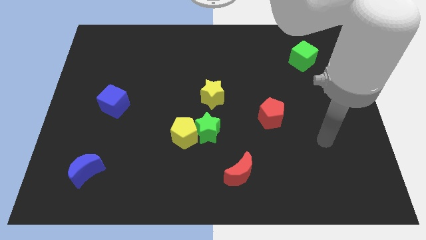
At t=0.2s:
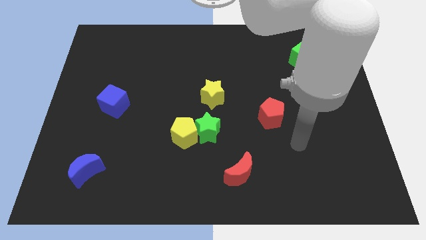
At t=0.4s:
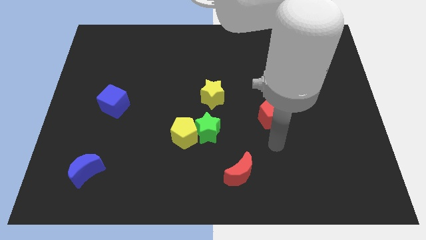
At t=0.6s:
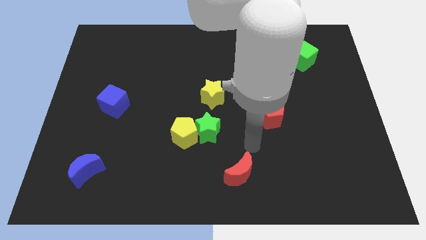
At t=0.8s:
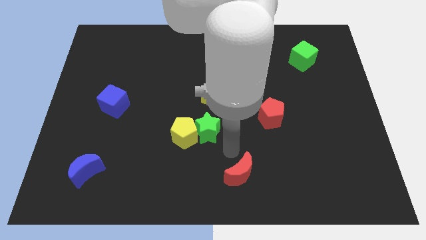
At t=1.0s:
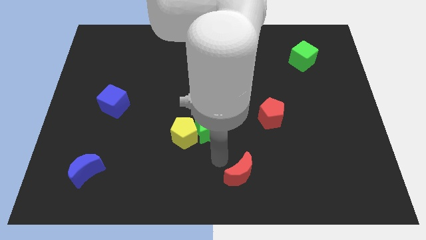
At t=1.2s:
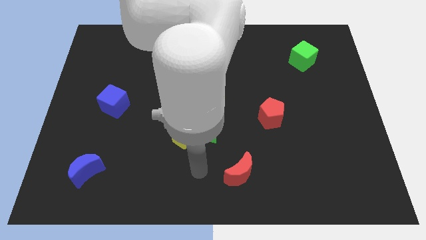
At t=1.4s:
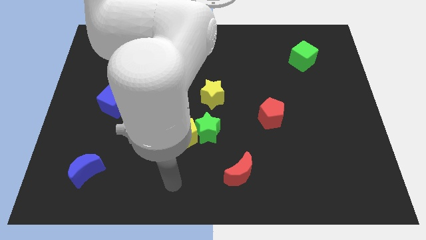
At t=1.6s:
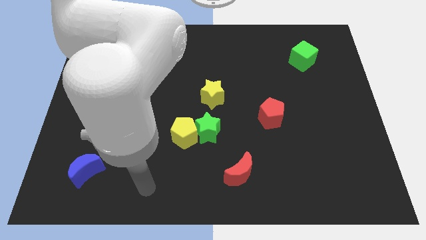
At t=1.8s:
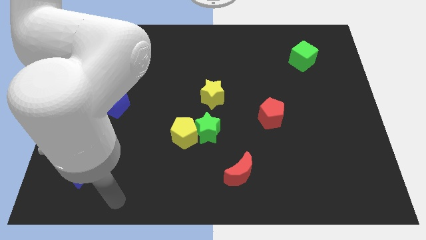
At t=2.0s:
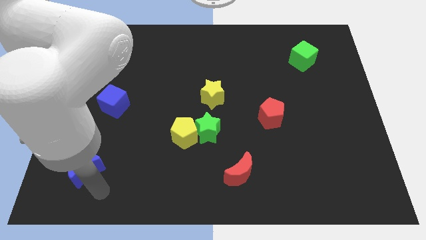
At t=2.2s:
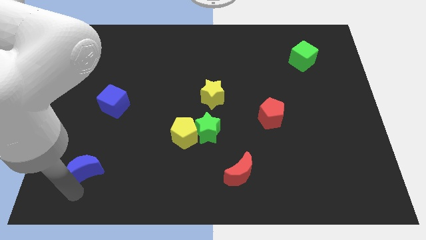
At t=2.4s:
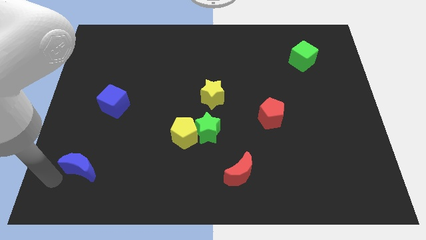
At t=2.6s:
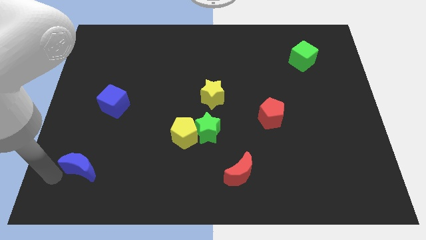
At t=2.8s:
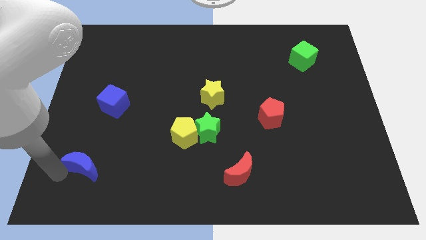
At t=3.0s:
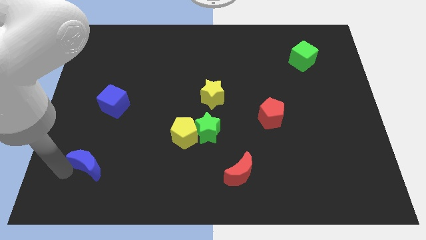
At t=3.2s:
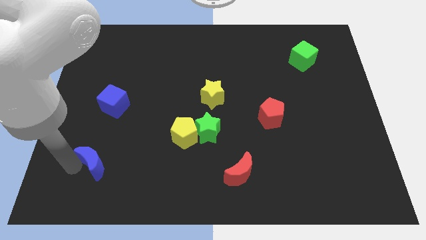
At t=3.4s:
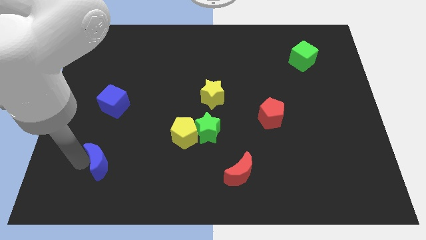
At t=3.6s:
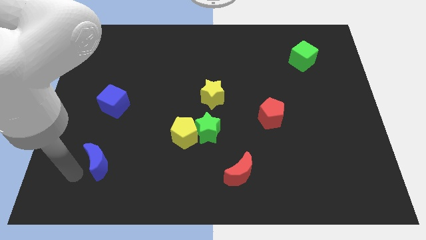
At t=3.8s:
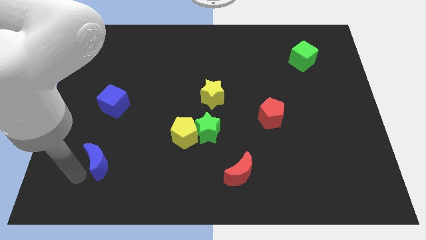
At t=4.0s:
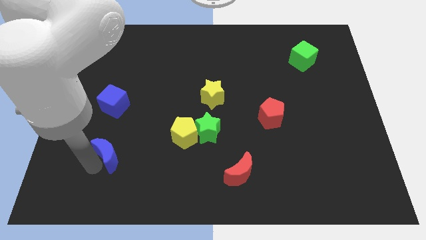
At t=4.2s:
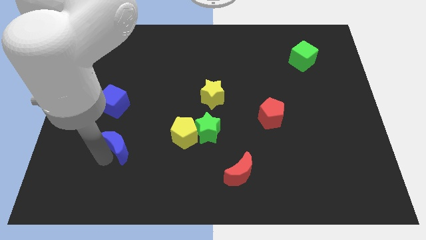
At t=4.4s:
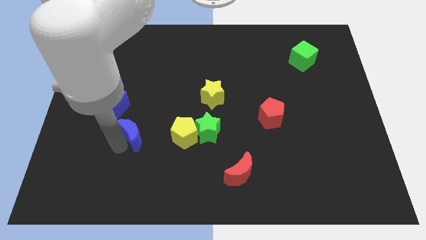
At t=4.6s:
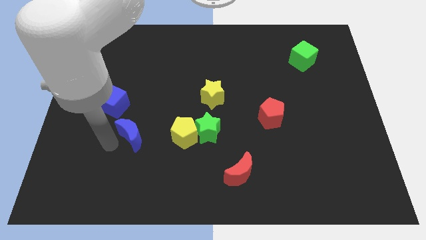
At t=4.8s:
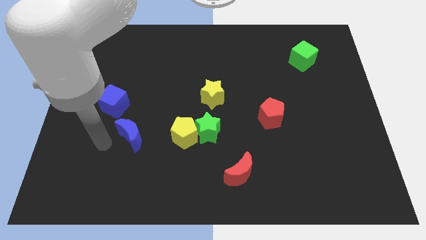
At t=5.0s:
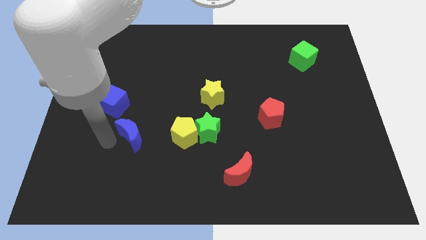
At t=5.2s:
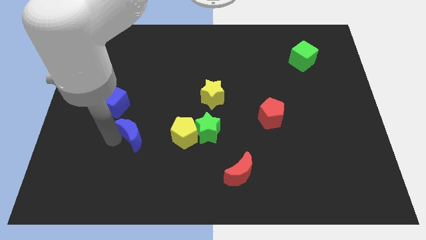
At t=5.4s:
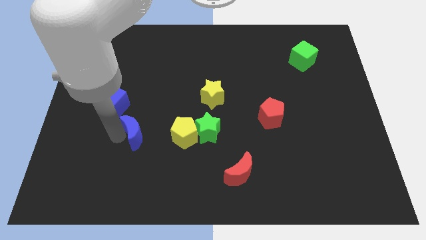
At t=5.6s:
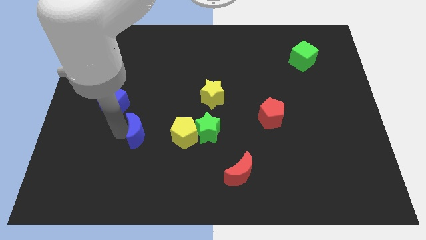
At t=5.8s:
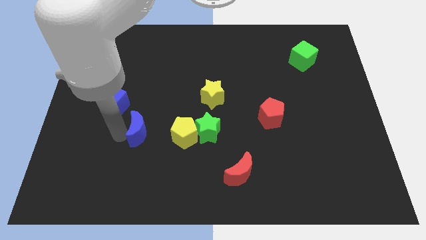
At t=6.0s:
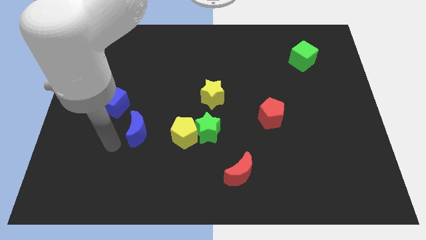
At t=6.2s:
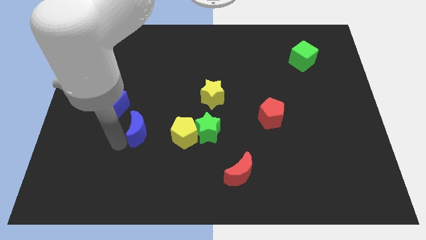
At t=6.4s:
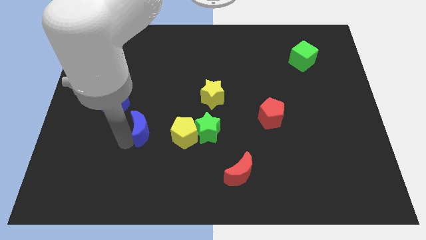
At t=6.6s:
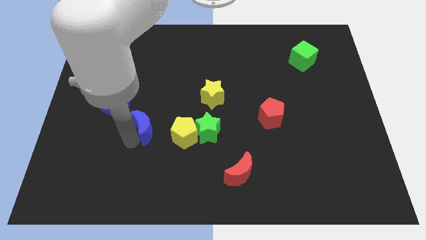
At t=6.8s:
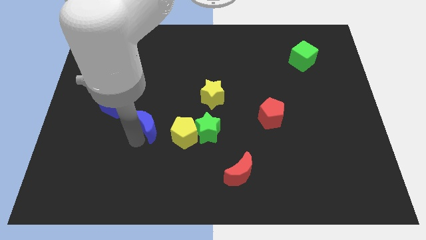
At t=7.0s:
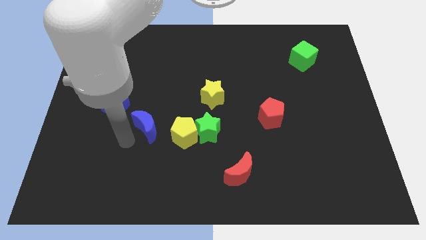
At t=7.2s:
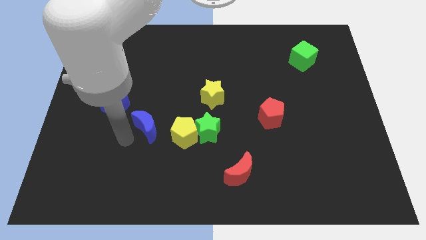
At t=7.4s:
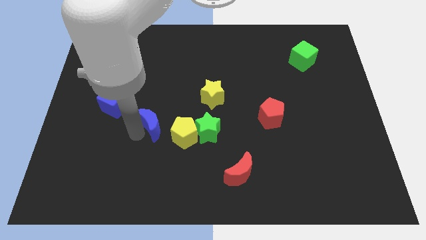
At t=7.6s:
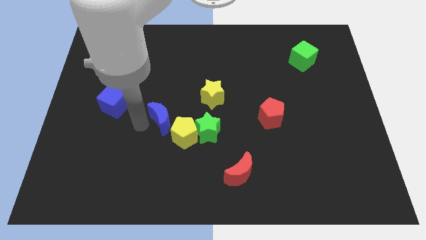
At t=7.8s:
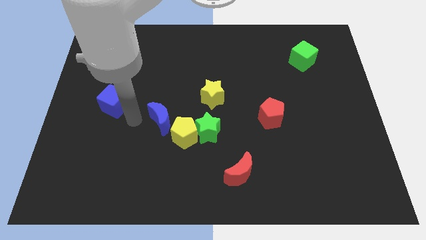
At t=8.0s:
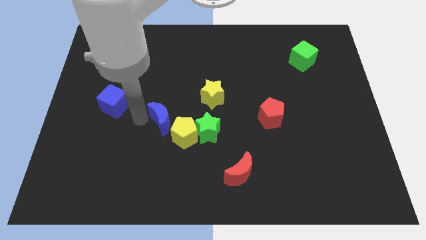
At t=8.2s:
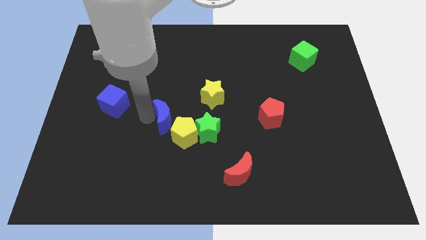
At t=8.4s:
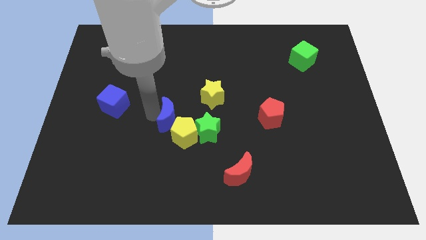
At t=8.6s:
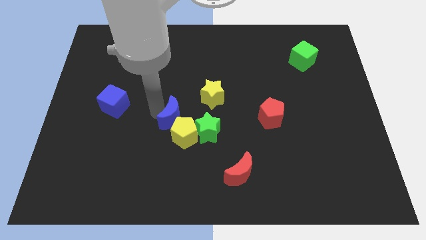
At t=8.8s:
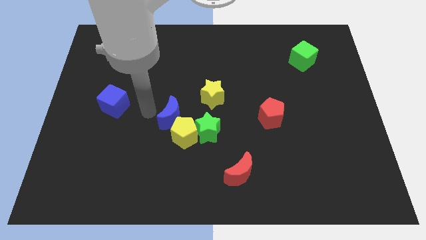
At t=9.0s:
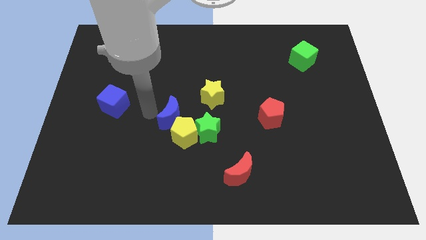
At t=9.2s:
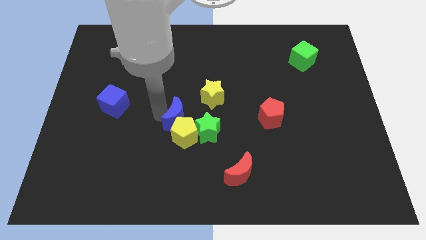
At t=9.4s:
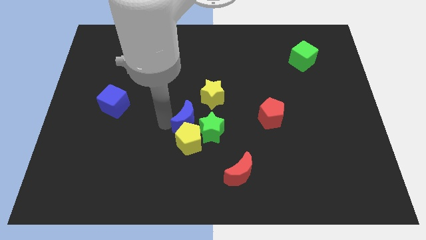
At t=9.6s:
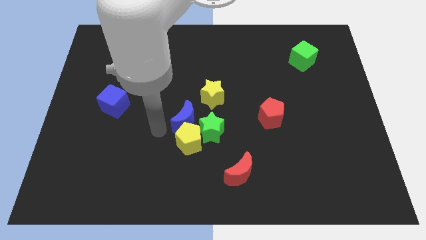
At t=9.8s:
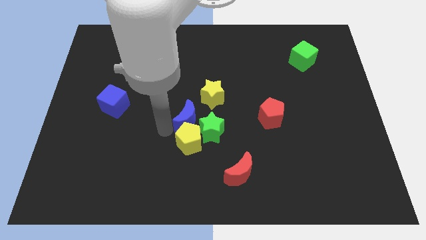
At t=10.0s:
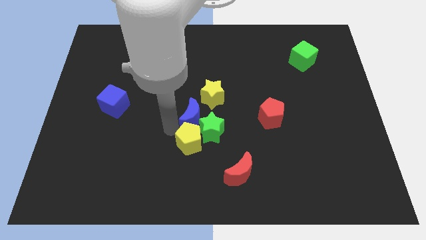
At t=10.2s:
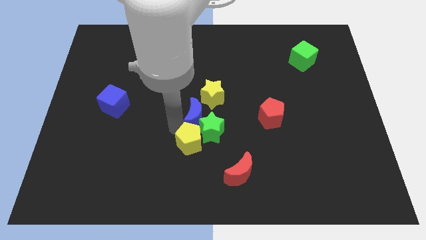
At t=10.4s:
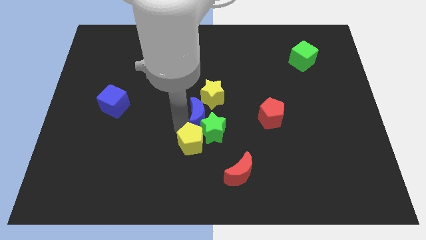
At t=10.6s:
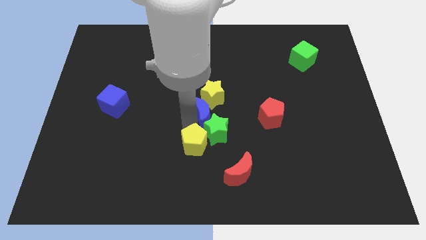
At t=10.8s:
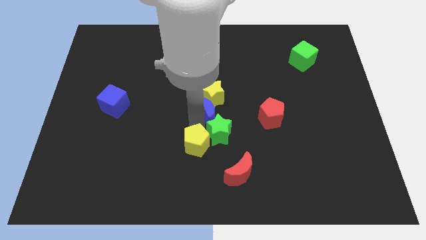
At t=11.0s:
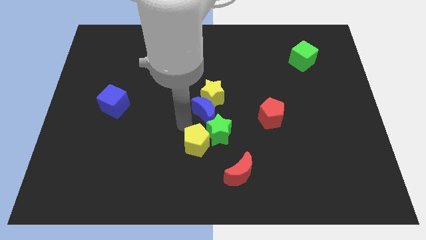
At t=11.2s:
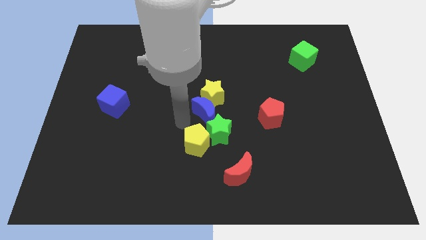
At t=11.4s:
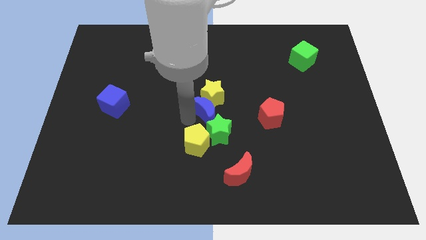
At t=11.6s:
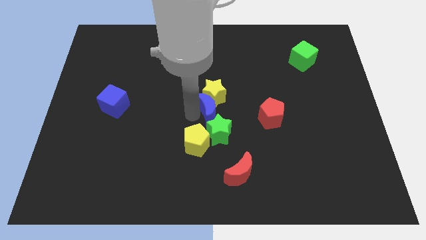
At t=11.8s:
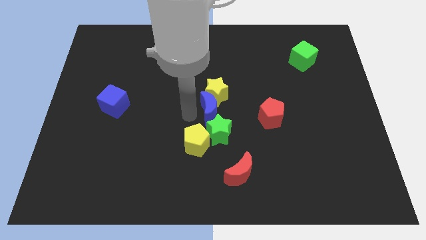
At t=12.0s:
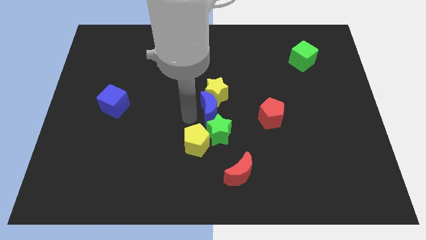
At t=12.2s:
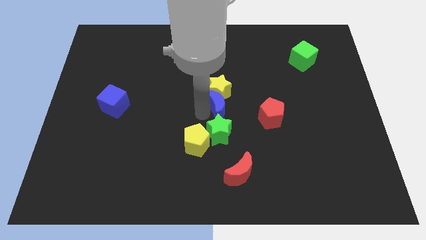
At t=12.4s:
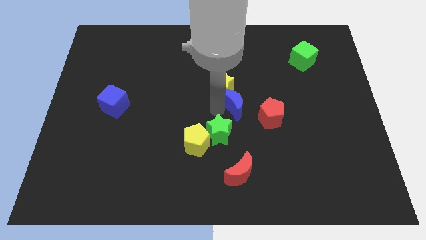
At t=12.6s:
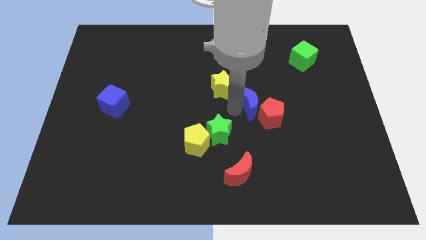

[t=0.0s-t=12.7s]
put the blue moon to the right of the yellow star

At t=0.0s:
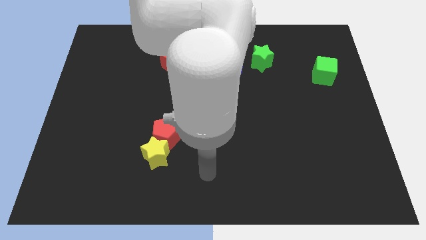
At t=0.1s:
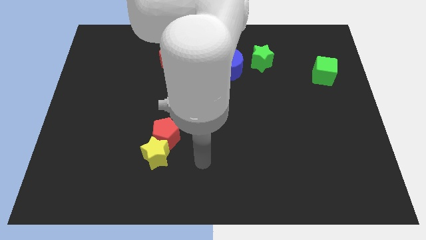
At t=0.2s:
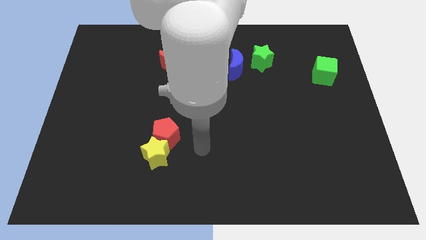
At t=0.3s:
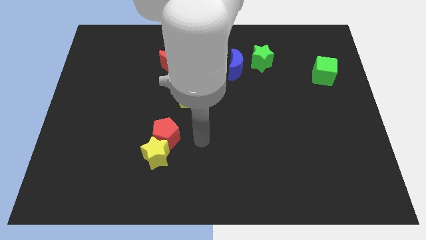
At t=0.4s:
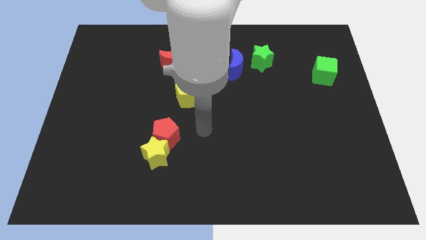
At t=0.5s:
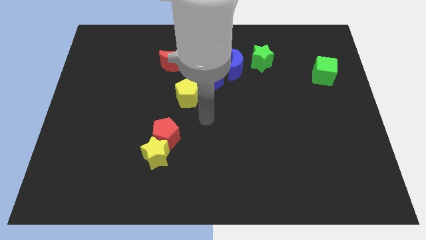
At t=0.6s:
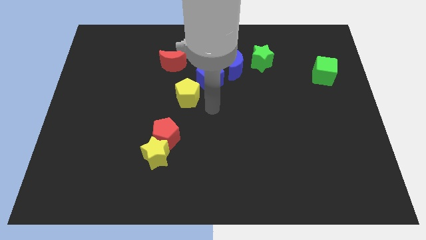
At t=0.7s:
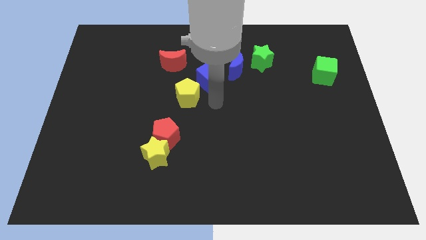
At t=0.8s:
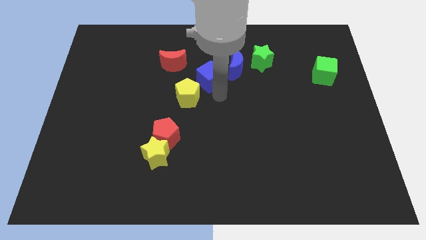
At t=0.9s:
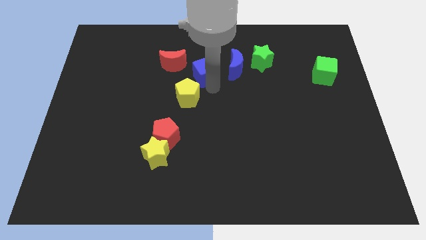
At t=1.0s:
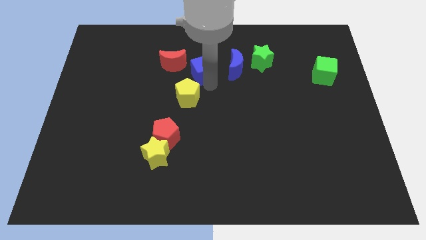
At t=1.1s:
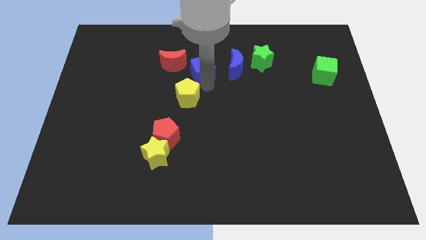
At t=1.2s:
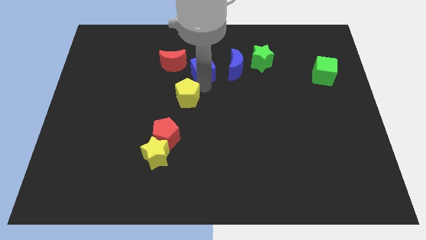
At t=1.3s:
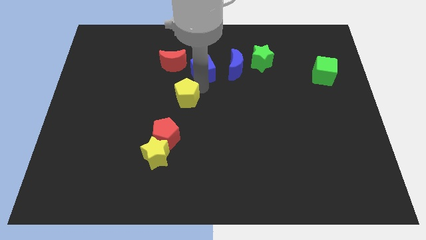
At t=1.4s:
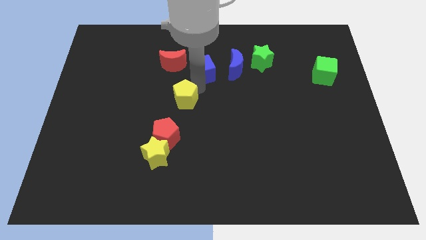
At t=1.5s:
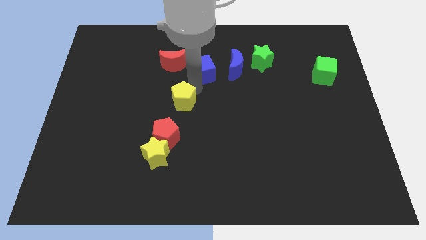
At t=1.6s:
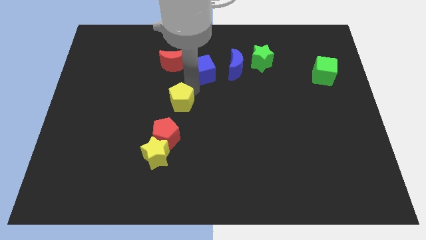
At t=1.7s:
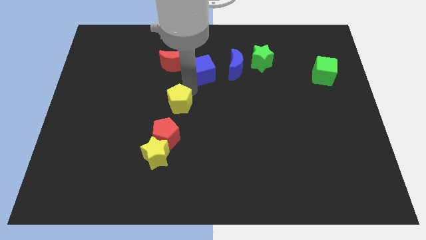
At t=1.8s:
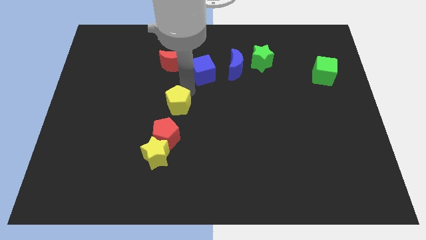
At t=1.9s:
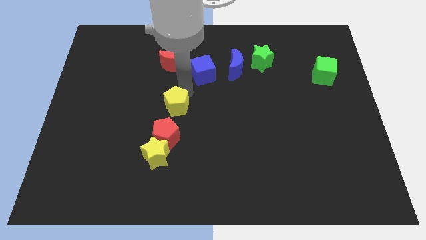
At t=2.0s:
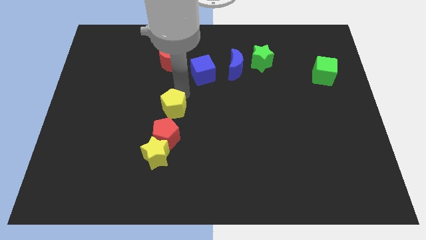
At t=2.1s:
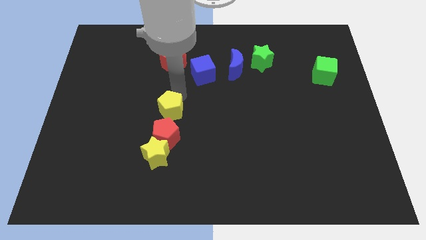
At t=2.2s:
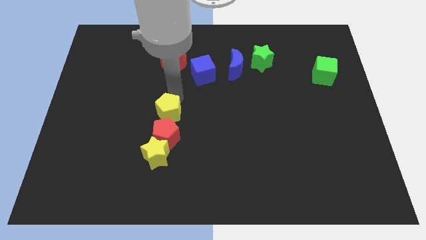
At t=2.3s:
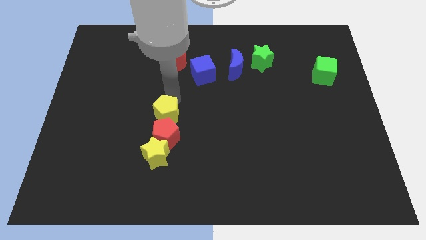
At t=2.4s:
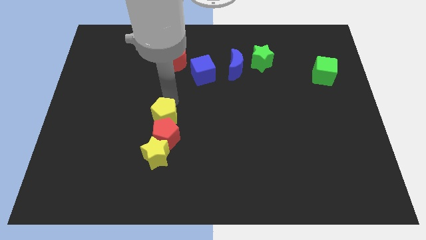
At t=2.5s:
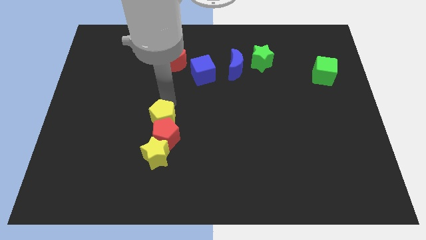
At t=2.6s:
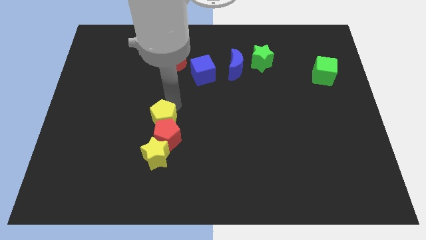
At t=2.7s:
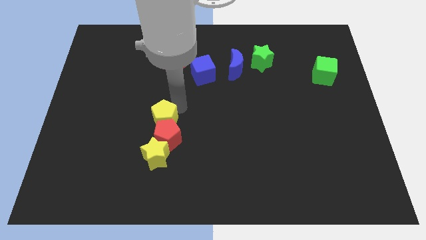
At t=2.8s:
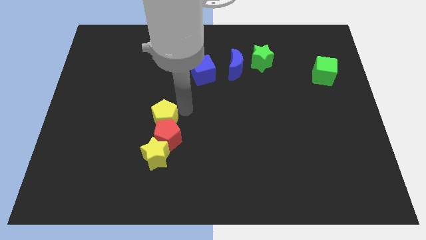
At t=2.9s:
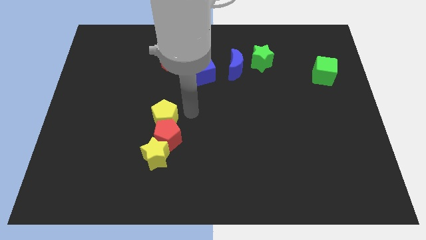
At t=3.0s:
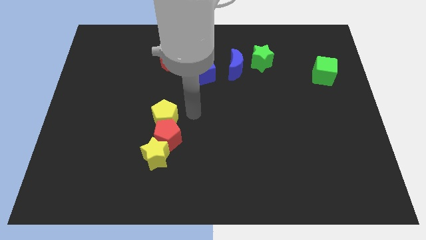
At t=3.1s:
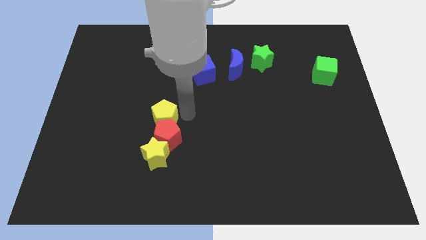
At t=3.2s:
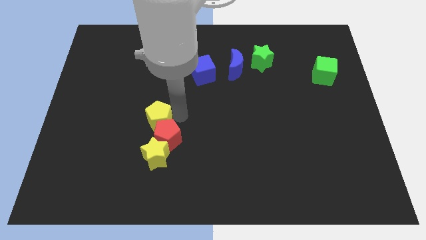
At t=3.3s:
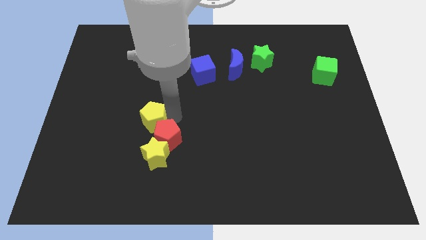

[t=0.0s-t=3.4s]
slide the yellow pentagon just left of the red pentagon
